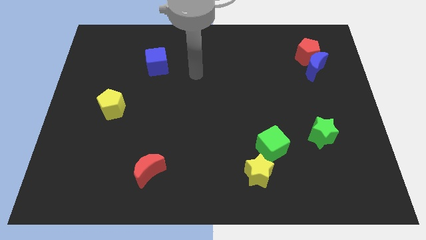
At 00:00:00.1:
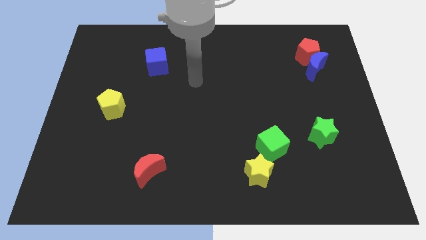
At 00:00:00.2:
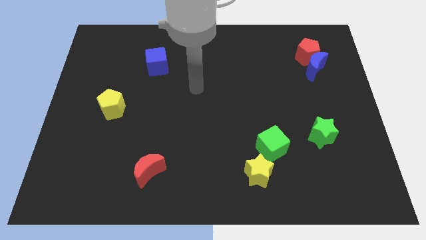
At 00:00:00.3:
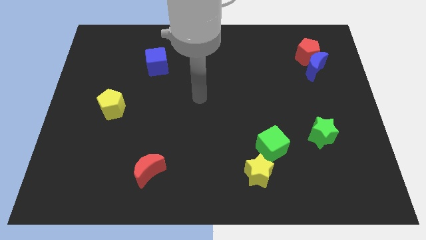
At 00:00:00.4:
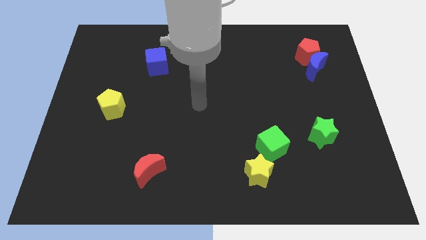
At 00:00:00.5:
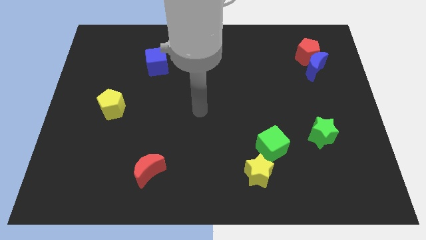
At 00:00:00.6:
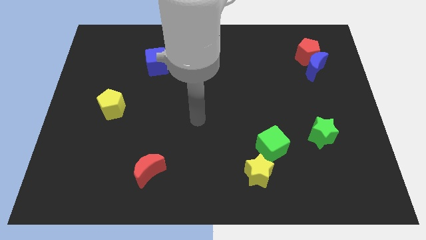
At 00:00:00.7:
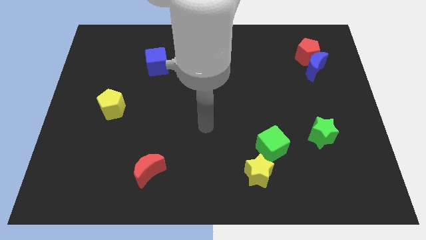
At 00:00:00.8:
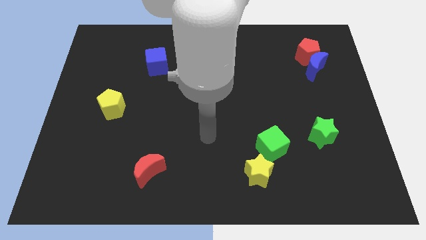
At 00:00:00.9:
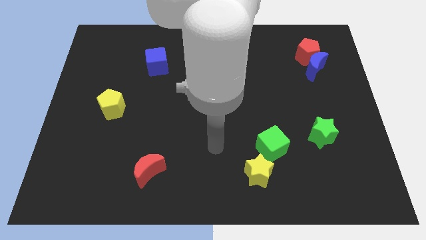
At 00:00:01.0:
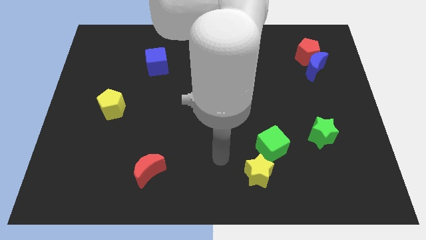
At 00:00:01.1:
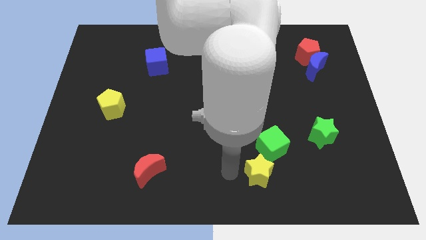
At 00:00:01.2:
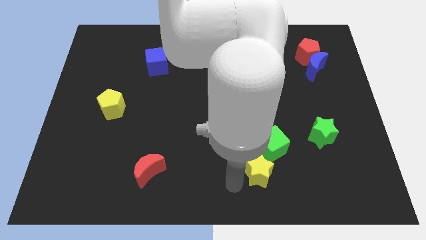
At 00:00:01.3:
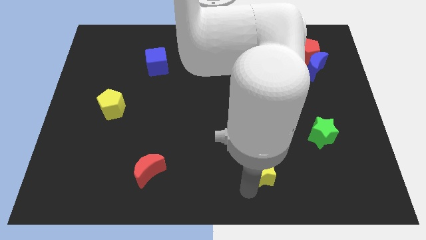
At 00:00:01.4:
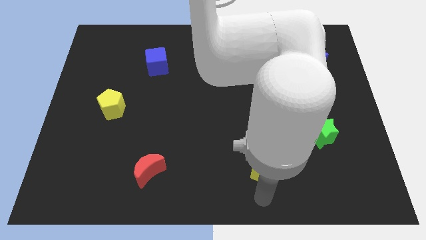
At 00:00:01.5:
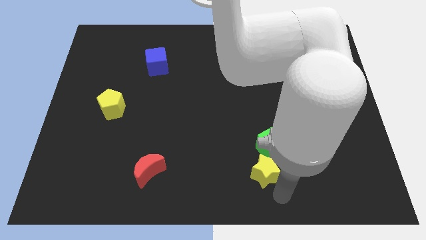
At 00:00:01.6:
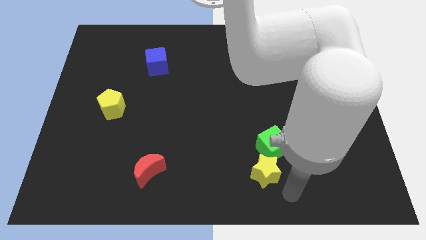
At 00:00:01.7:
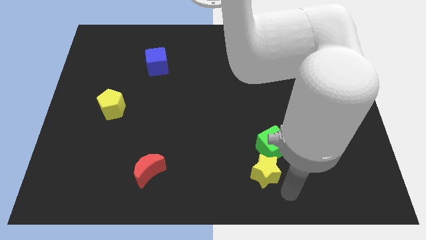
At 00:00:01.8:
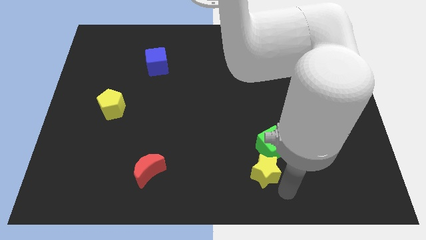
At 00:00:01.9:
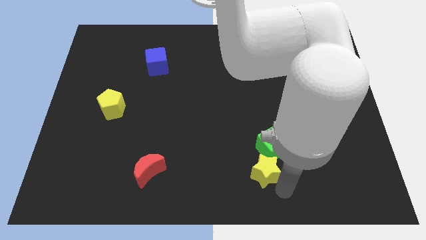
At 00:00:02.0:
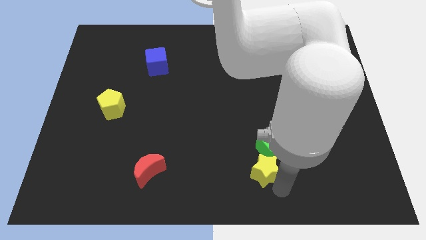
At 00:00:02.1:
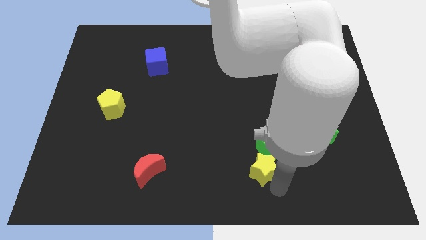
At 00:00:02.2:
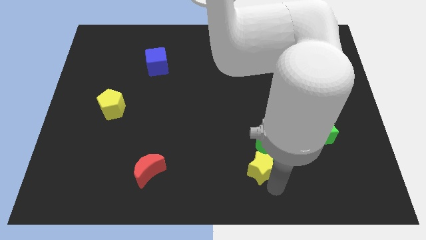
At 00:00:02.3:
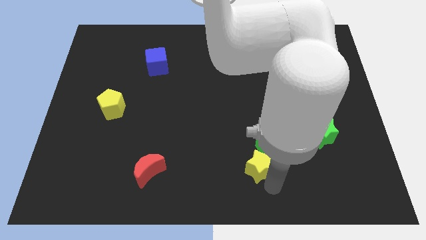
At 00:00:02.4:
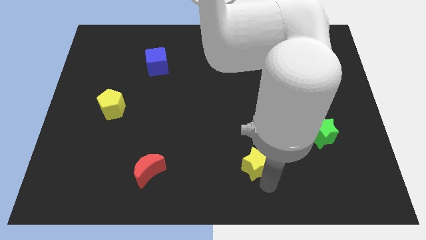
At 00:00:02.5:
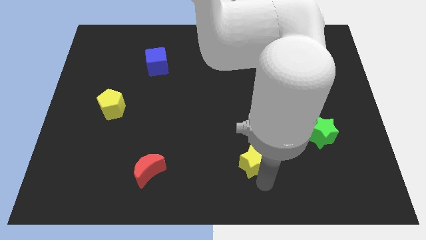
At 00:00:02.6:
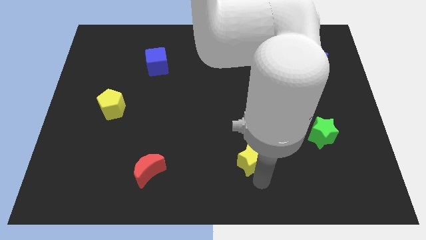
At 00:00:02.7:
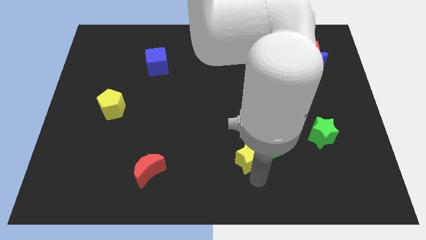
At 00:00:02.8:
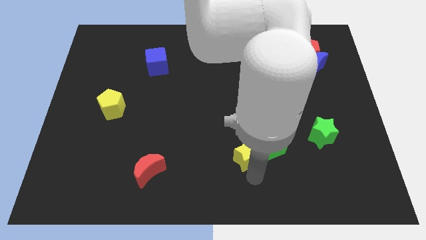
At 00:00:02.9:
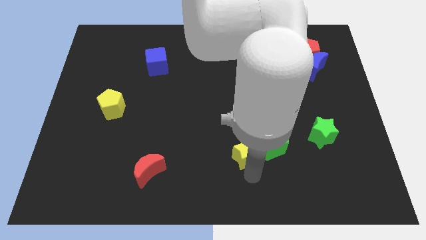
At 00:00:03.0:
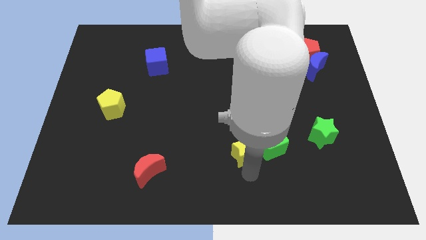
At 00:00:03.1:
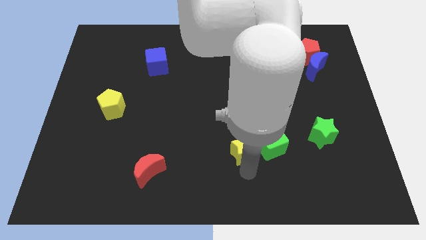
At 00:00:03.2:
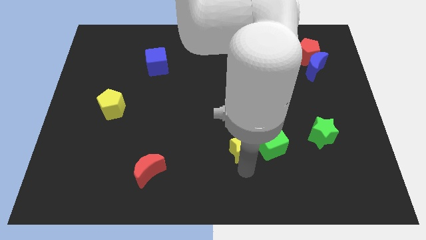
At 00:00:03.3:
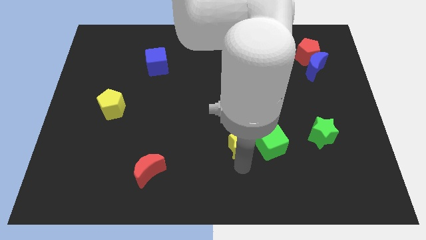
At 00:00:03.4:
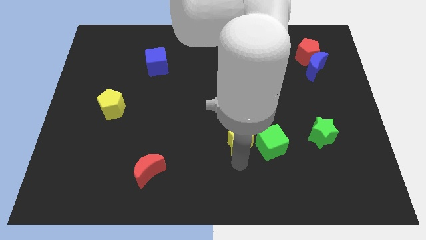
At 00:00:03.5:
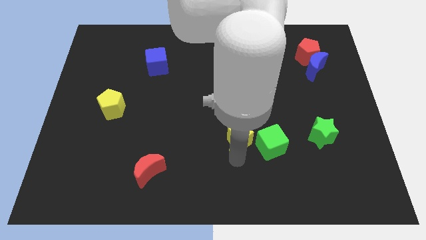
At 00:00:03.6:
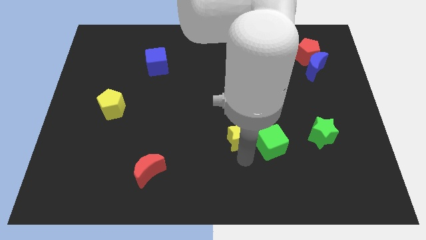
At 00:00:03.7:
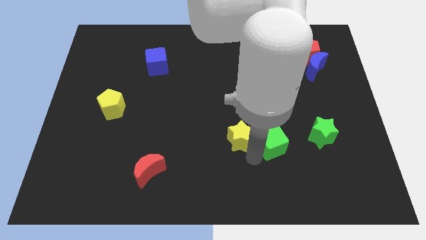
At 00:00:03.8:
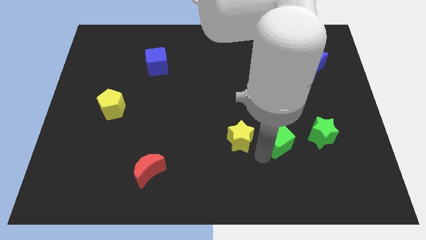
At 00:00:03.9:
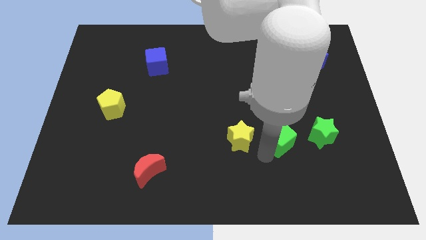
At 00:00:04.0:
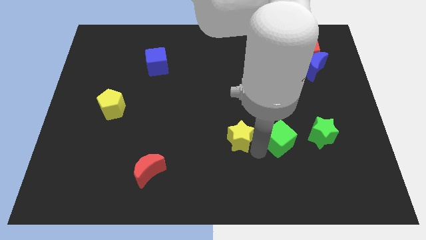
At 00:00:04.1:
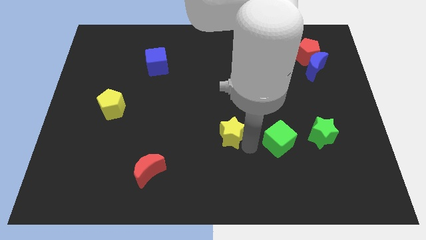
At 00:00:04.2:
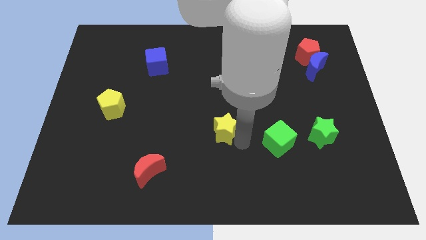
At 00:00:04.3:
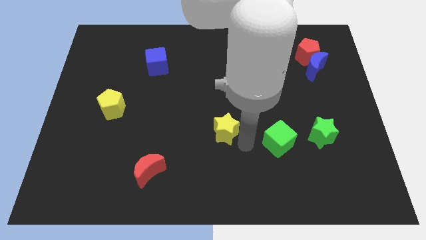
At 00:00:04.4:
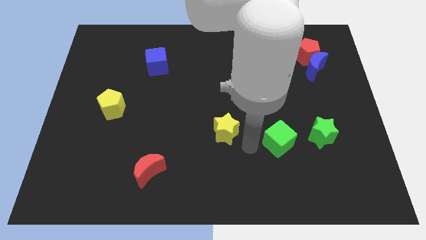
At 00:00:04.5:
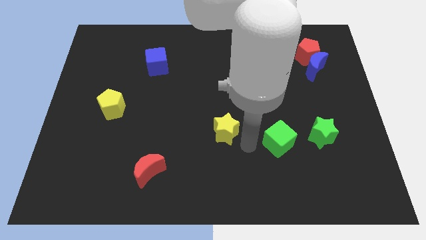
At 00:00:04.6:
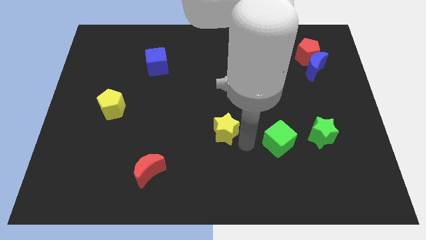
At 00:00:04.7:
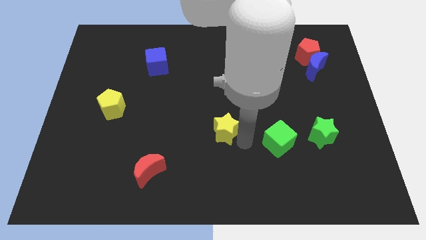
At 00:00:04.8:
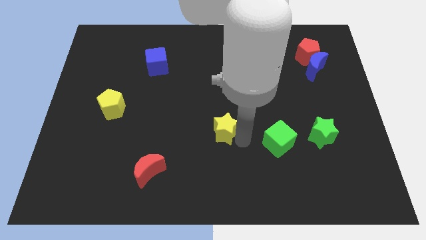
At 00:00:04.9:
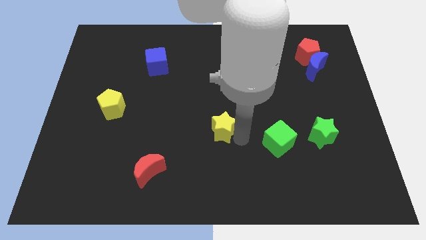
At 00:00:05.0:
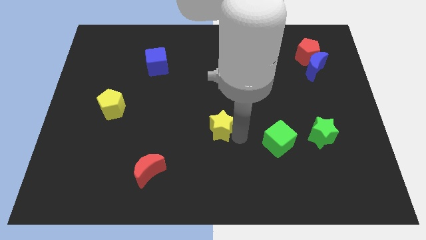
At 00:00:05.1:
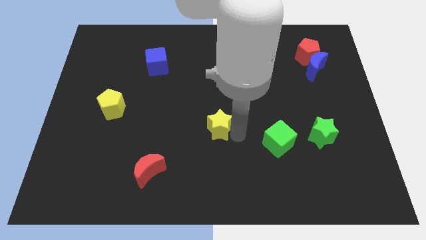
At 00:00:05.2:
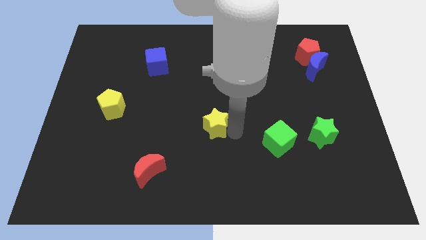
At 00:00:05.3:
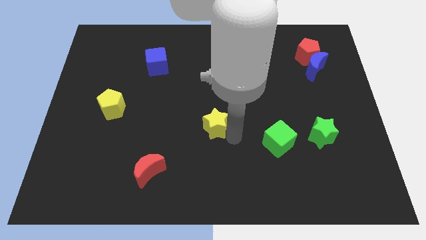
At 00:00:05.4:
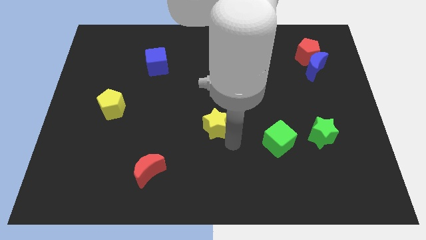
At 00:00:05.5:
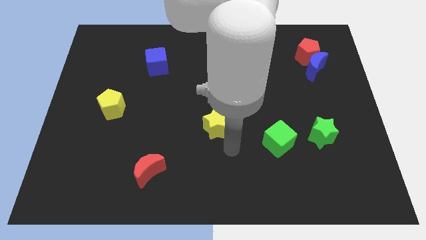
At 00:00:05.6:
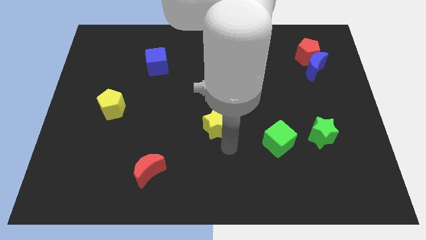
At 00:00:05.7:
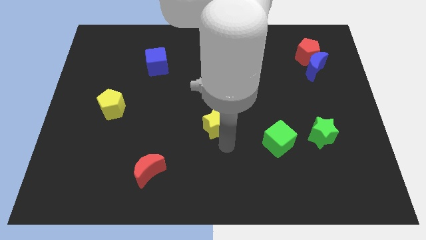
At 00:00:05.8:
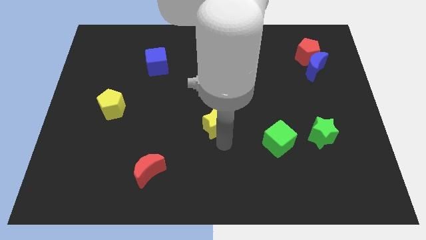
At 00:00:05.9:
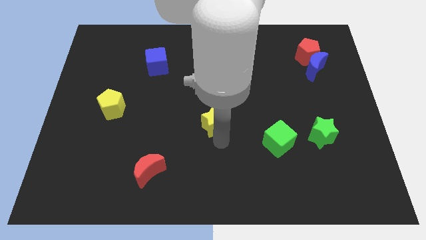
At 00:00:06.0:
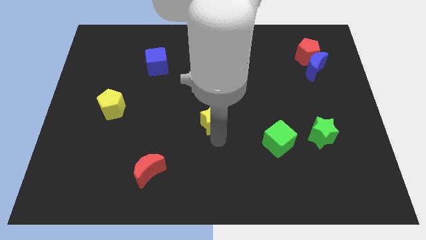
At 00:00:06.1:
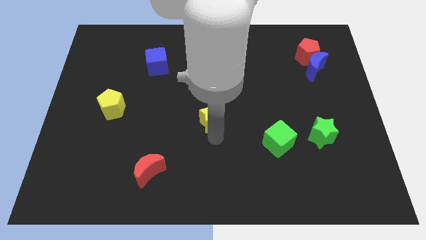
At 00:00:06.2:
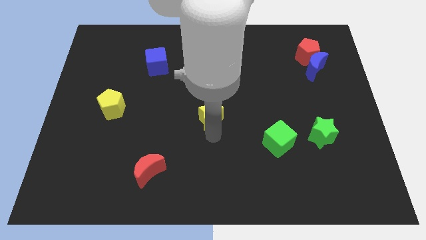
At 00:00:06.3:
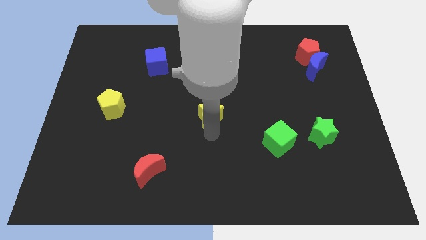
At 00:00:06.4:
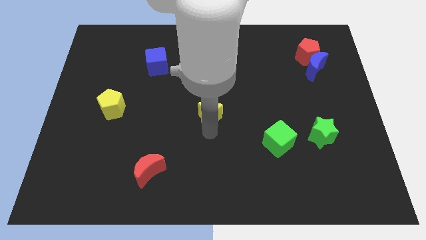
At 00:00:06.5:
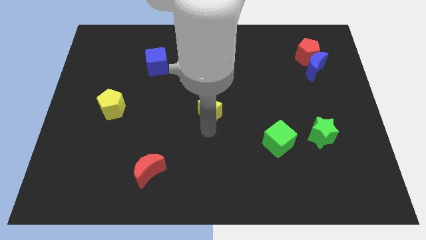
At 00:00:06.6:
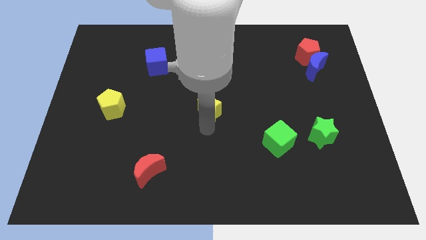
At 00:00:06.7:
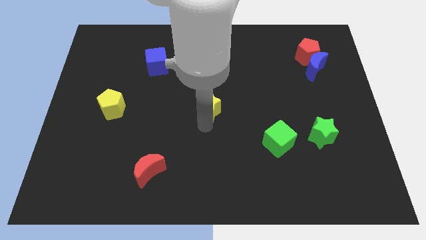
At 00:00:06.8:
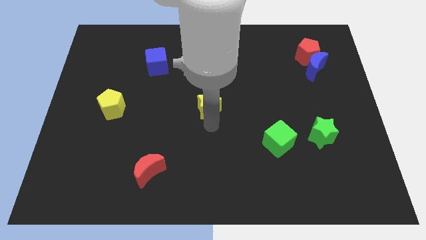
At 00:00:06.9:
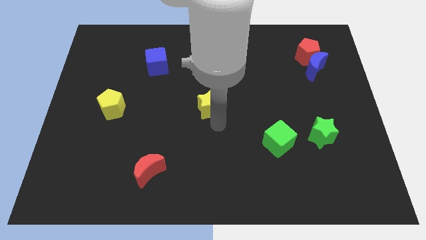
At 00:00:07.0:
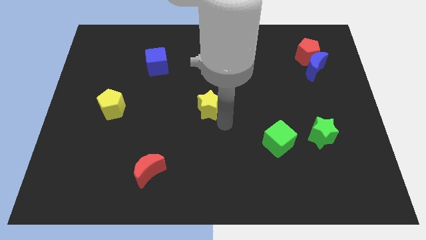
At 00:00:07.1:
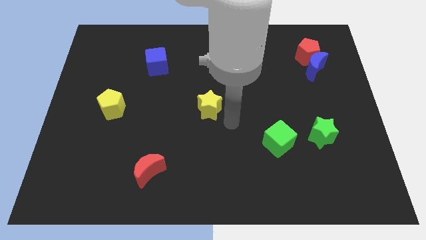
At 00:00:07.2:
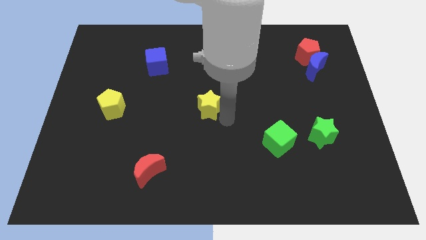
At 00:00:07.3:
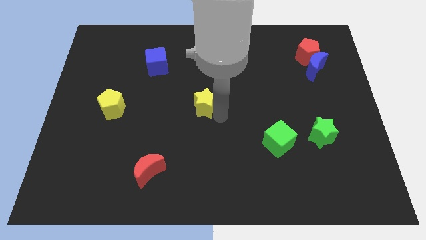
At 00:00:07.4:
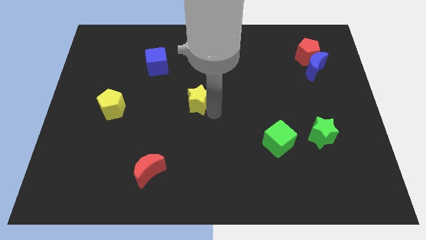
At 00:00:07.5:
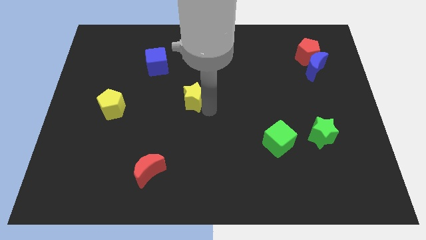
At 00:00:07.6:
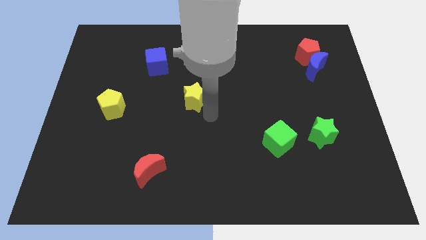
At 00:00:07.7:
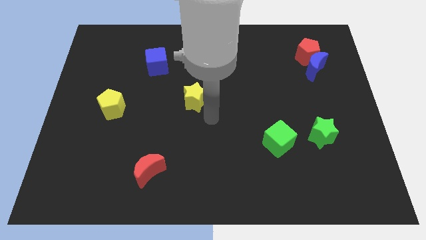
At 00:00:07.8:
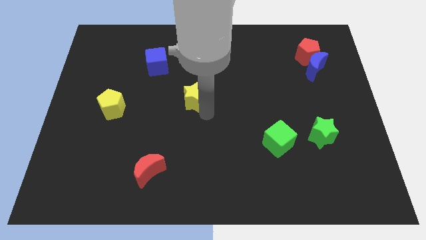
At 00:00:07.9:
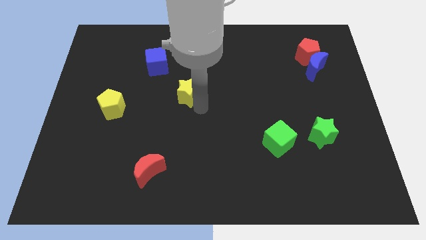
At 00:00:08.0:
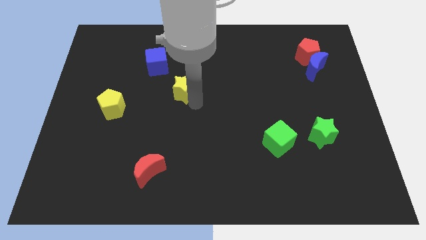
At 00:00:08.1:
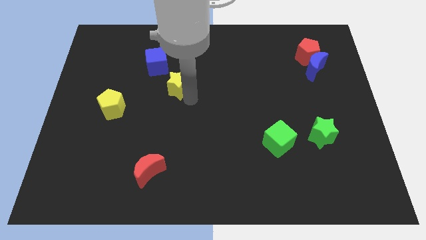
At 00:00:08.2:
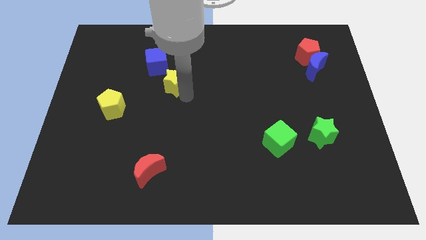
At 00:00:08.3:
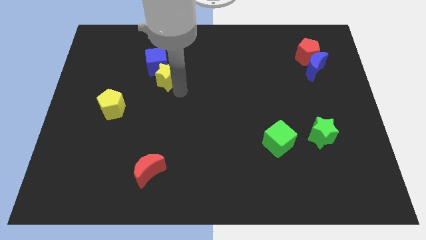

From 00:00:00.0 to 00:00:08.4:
put the yellow star towards the blue cube
